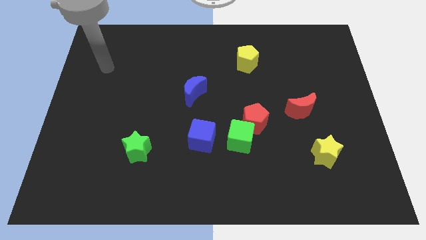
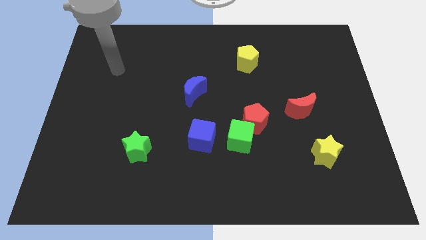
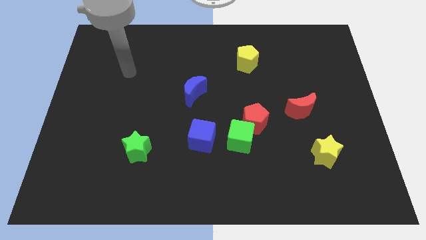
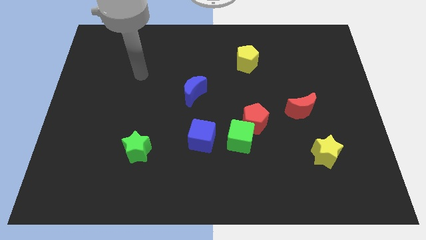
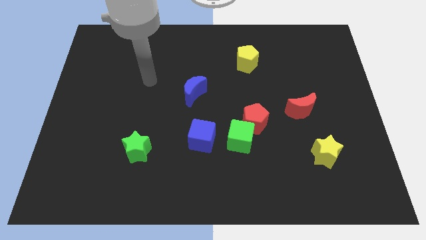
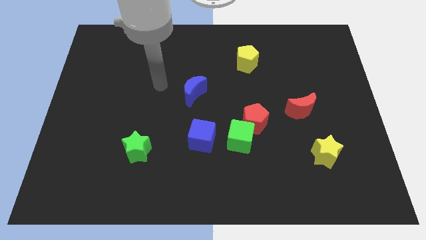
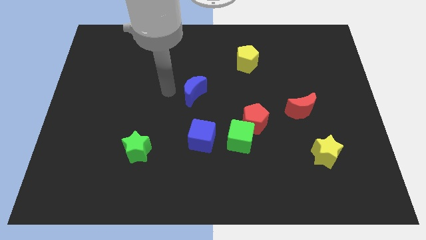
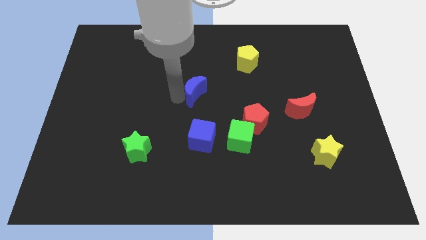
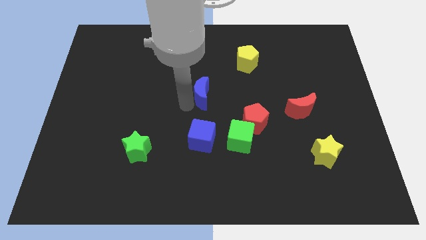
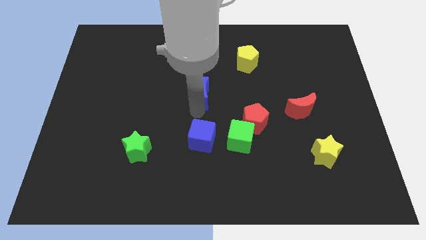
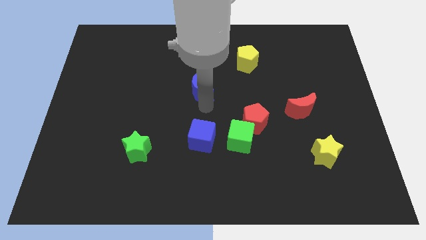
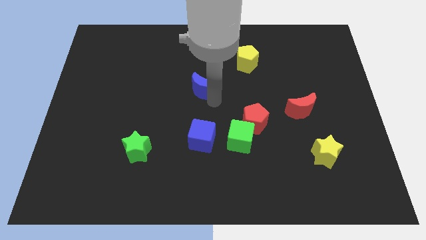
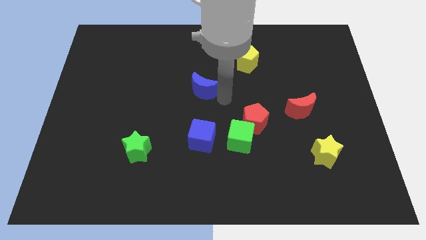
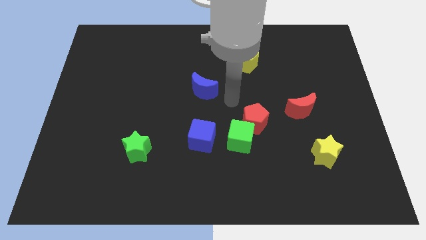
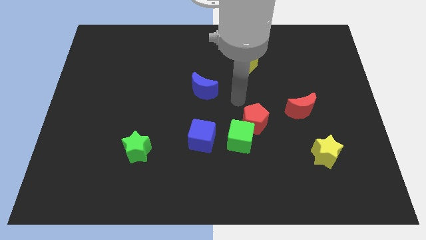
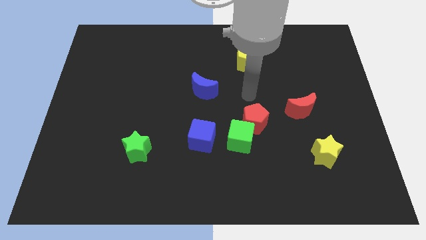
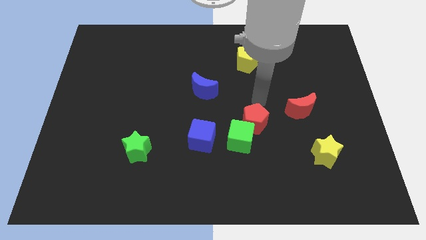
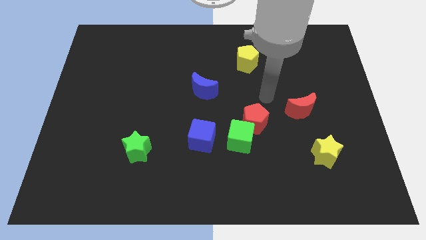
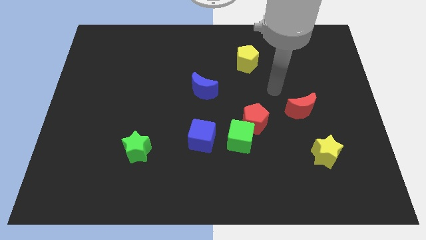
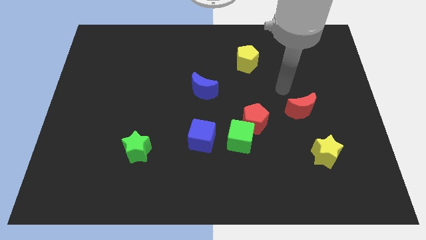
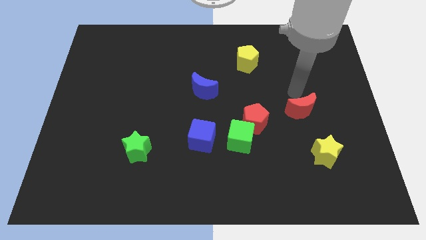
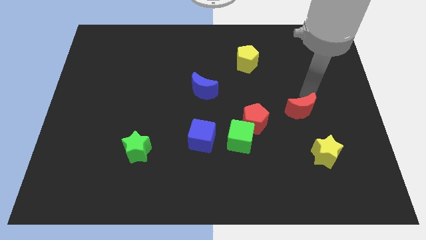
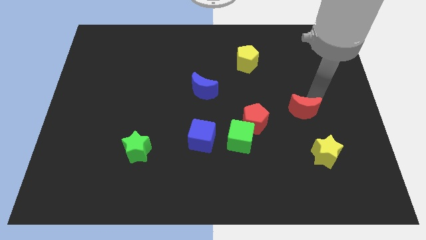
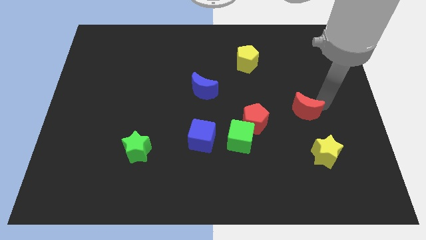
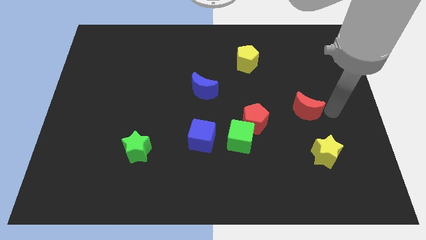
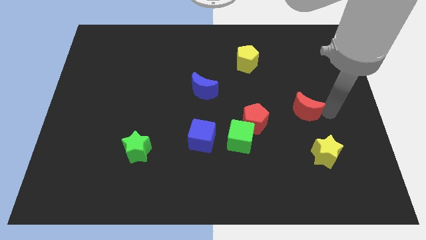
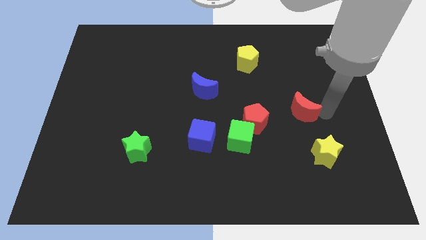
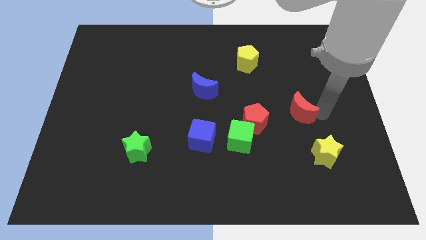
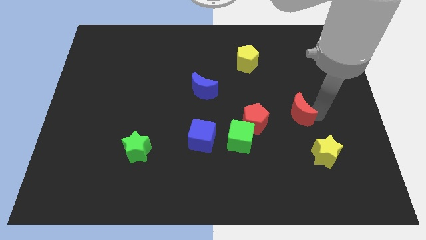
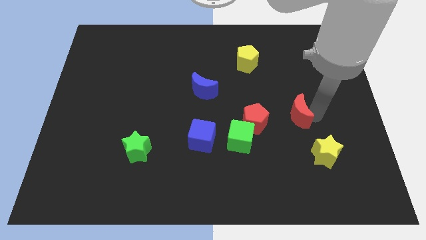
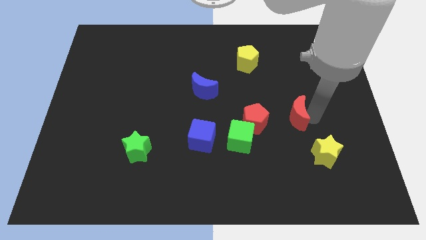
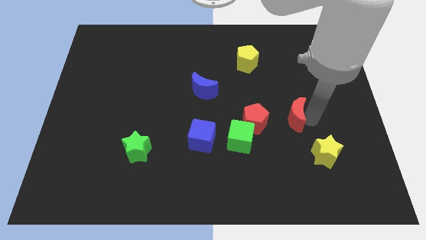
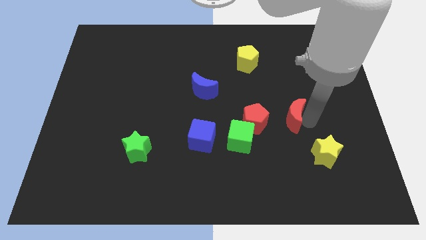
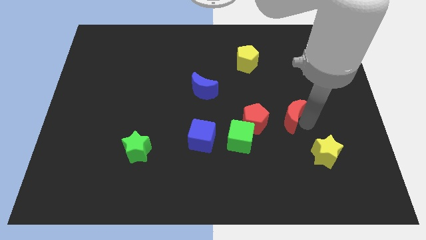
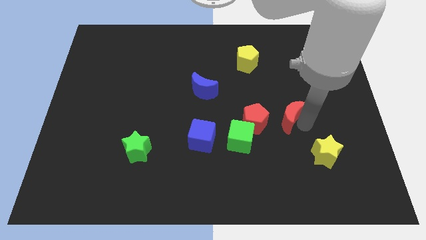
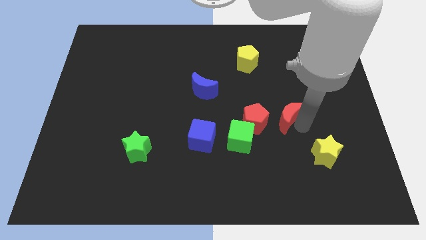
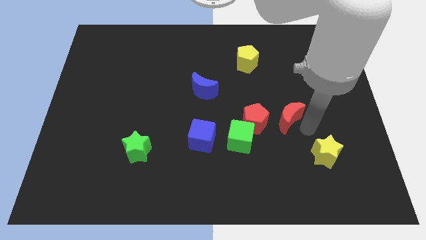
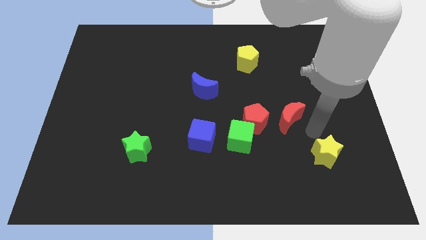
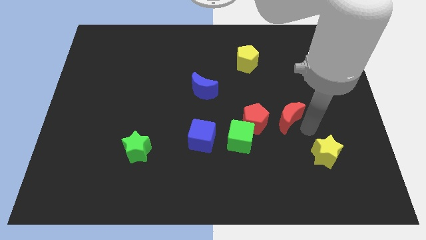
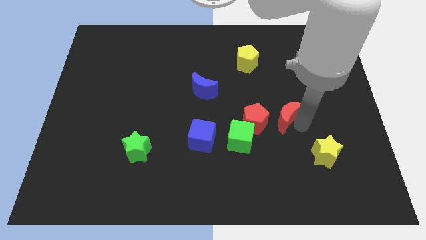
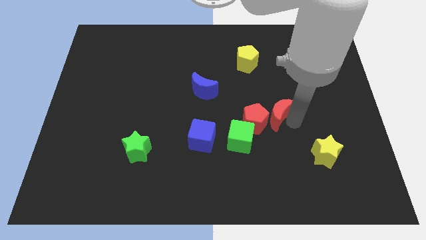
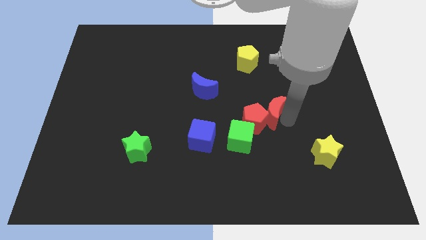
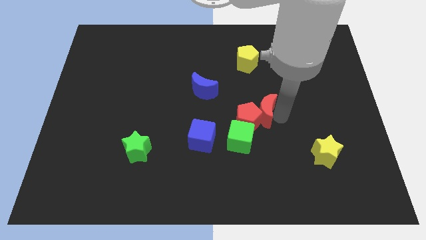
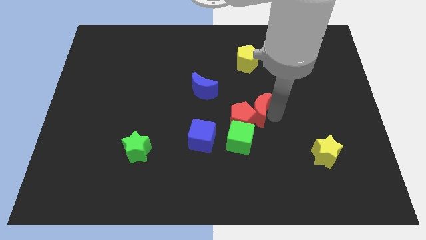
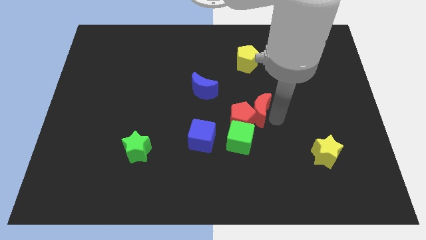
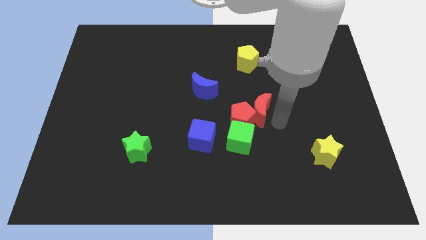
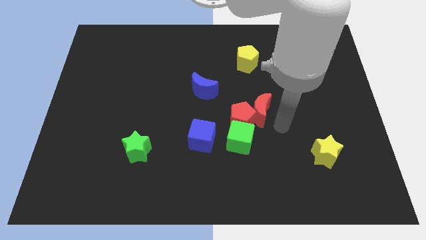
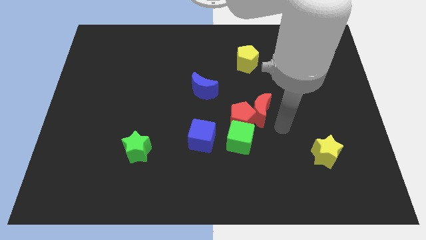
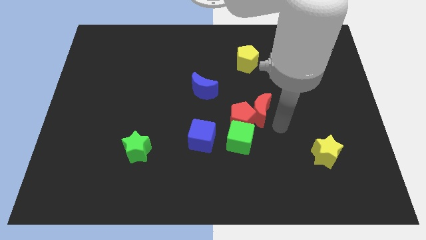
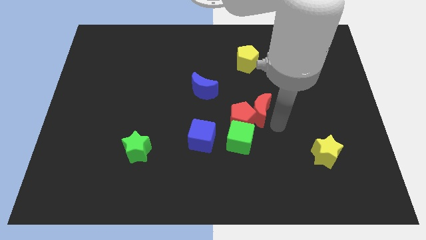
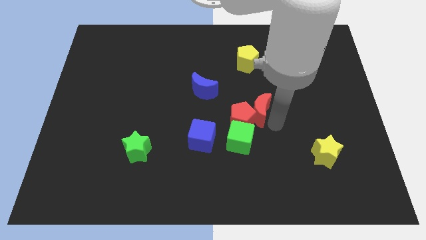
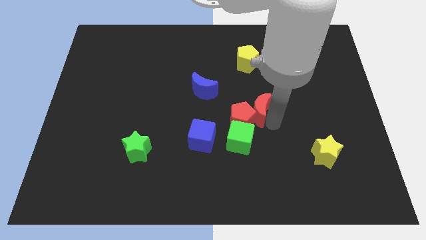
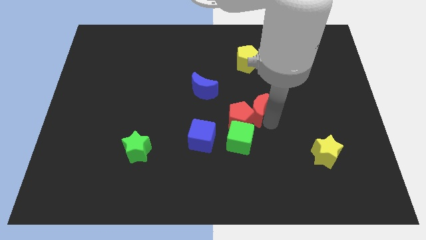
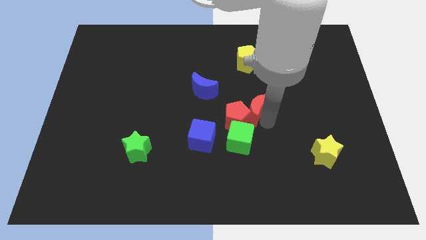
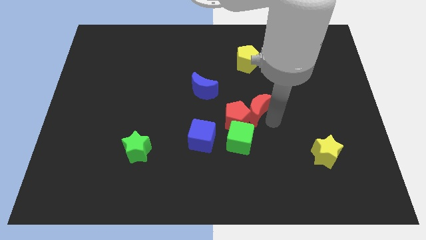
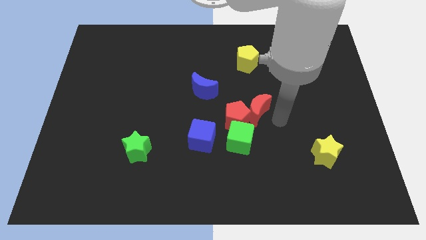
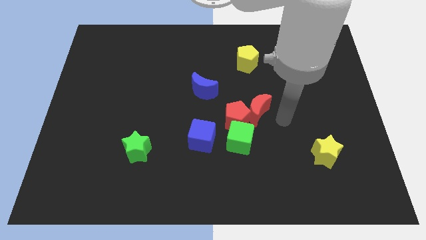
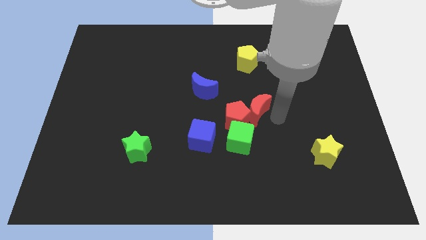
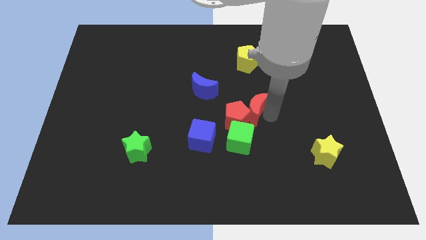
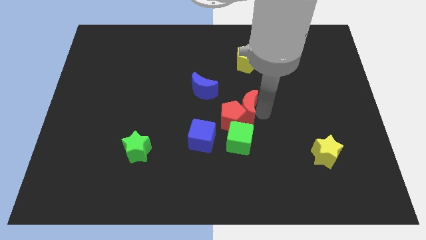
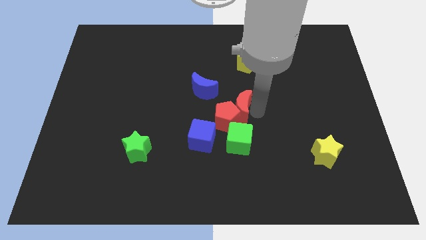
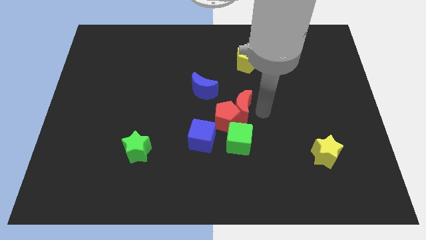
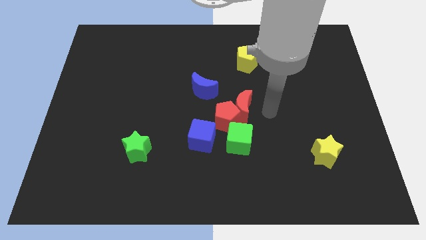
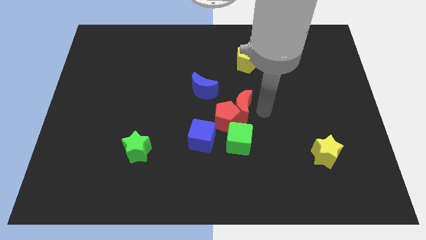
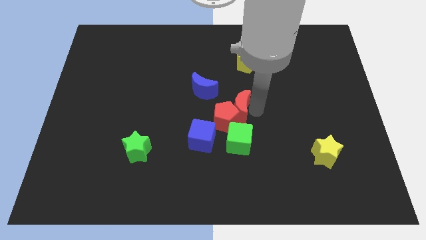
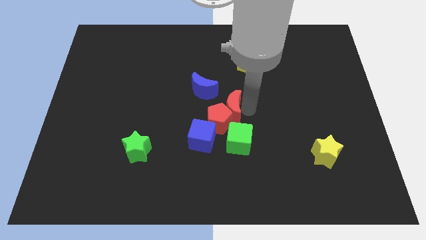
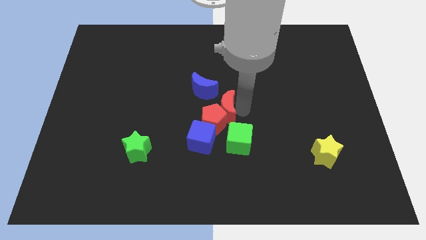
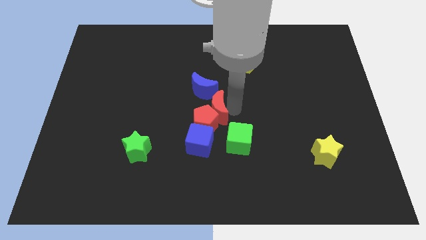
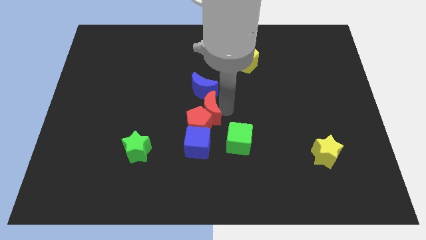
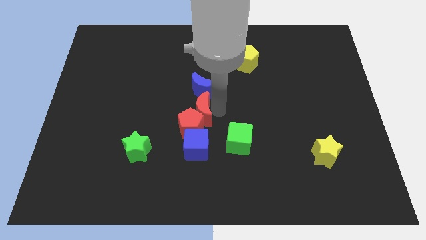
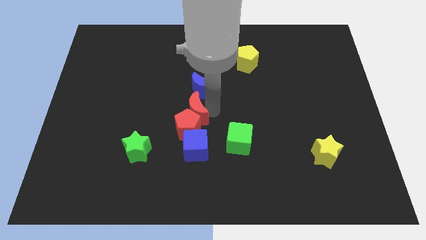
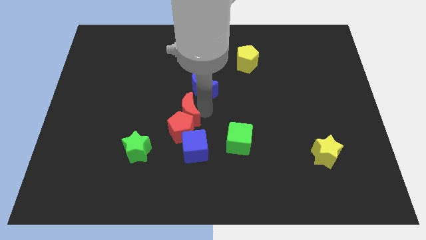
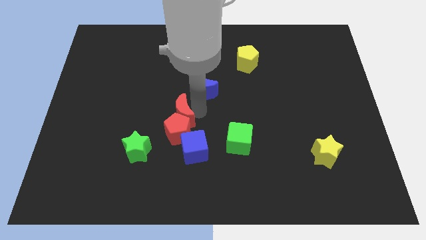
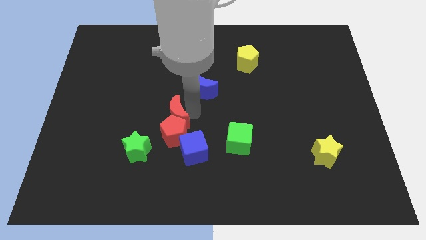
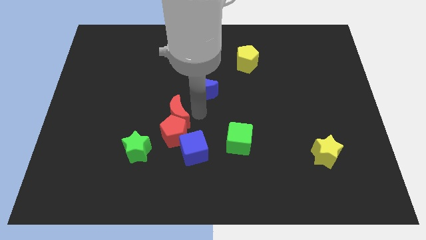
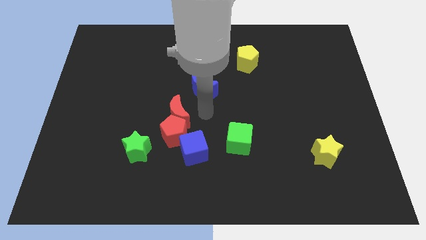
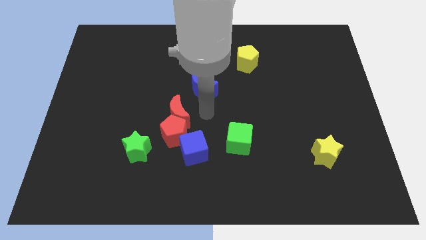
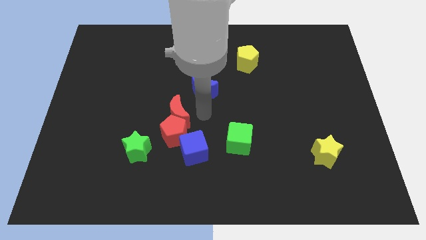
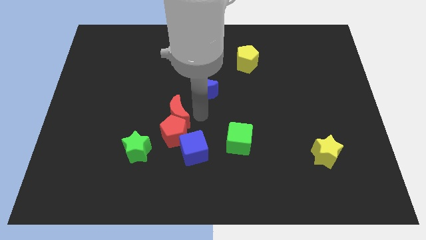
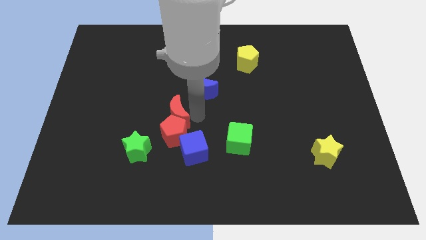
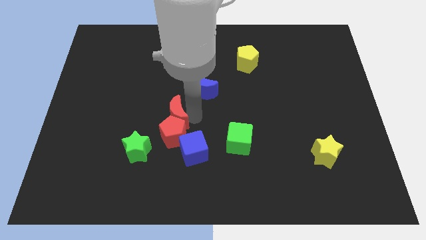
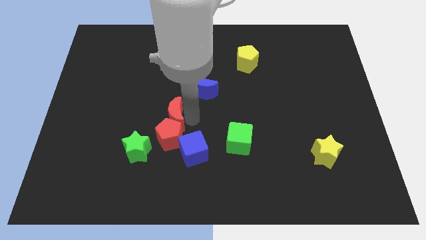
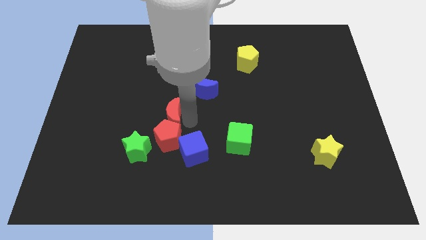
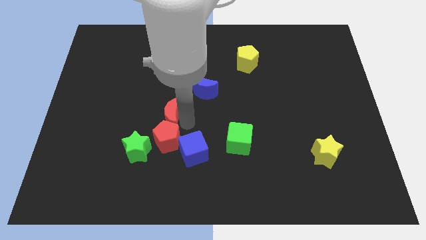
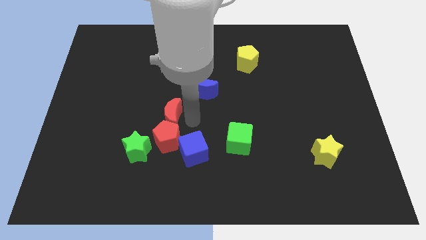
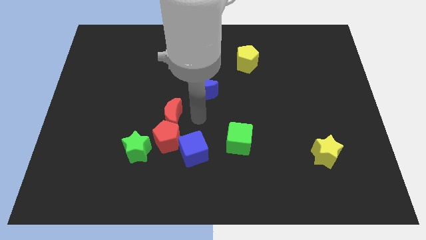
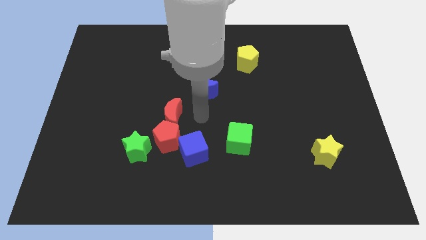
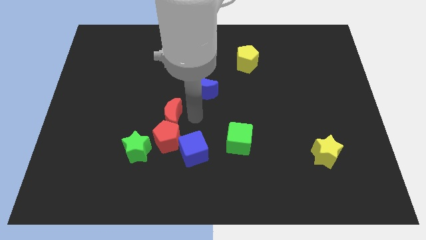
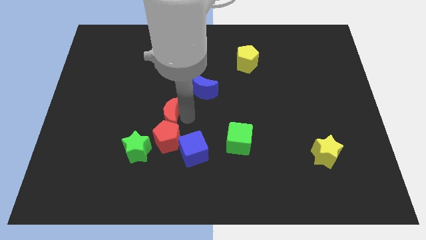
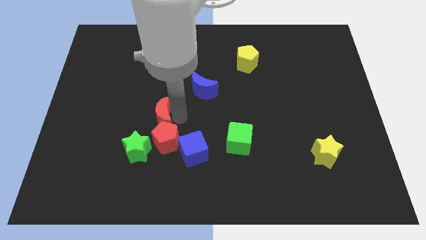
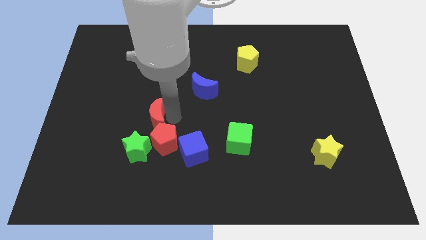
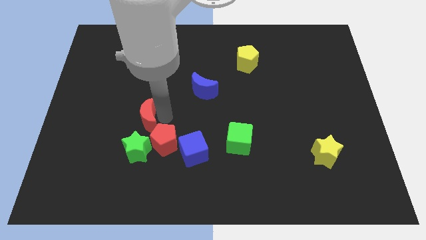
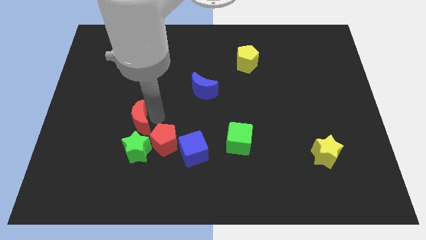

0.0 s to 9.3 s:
move the red moon diagonally up and to the left of the green star
